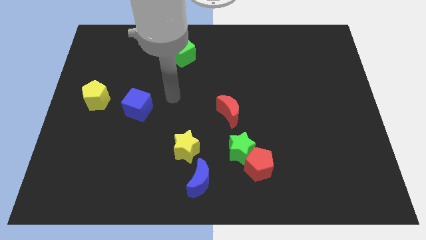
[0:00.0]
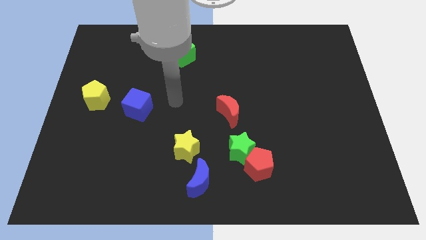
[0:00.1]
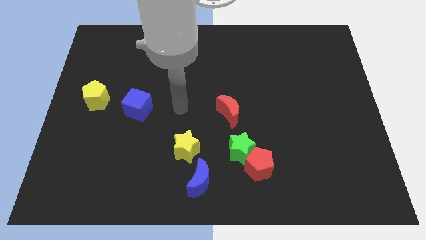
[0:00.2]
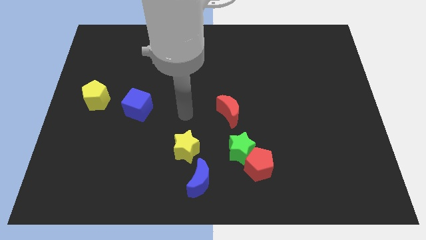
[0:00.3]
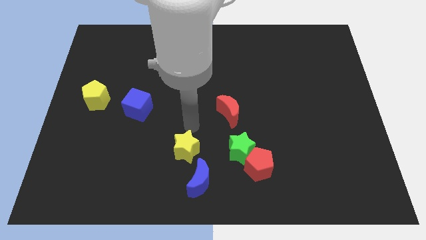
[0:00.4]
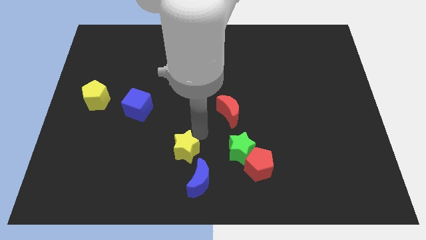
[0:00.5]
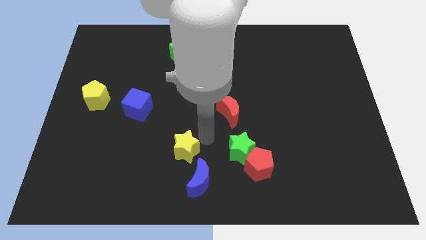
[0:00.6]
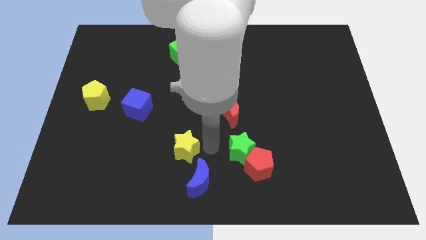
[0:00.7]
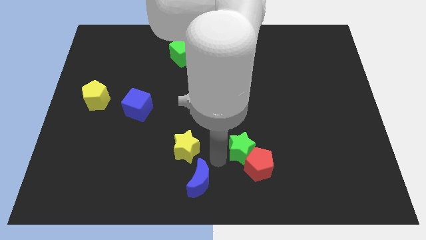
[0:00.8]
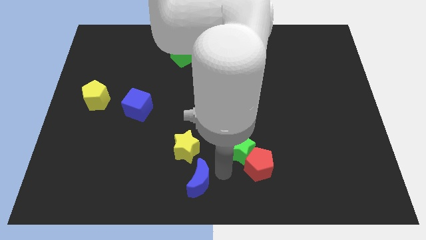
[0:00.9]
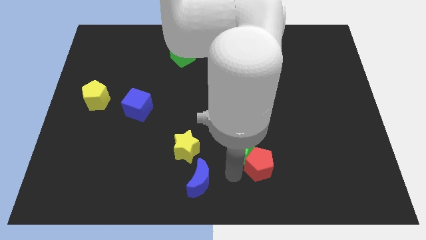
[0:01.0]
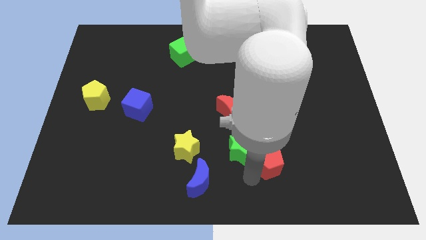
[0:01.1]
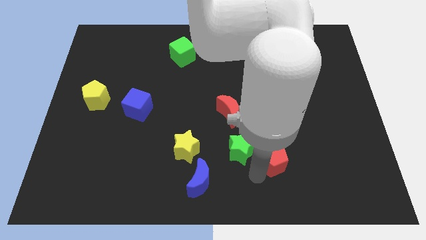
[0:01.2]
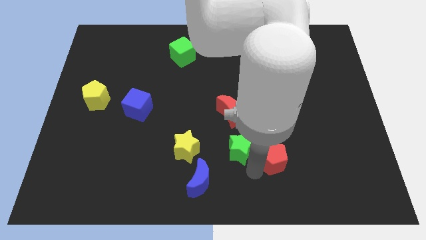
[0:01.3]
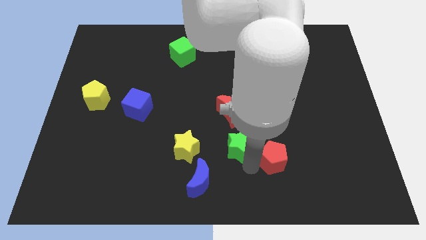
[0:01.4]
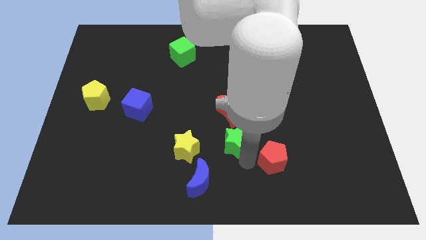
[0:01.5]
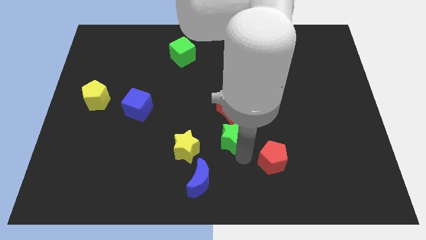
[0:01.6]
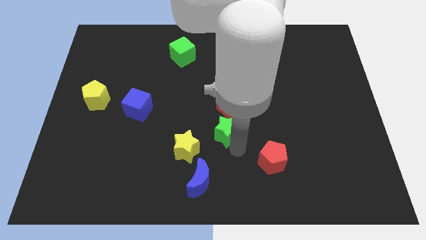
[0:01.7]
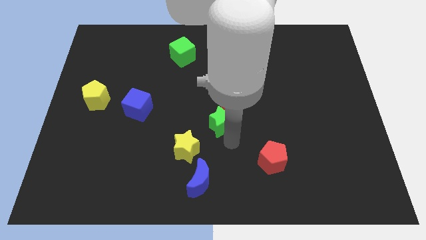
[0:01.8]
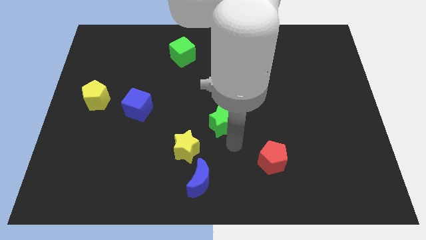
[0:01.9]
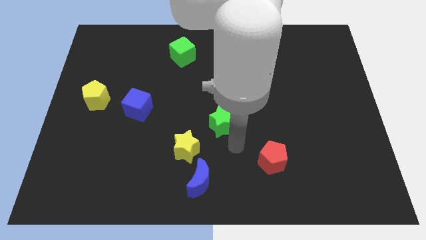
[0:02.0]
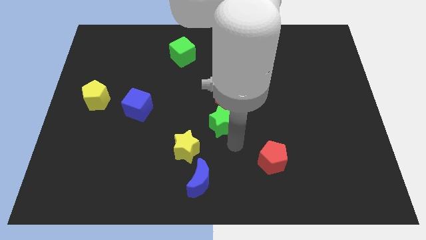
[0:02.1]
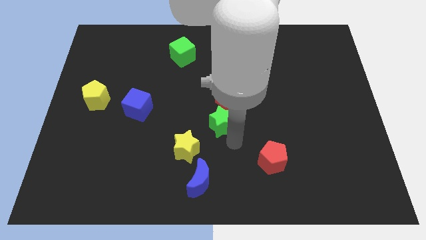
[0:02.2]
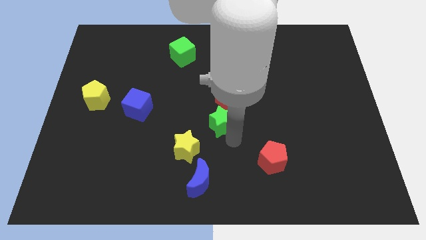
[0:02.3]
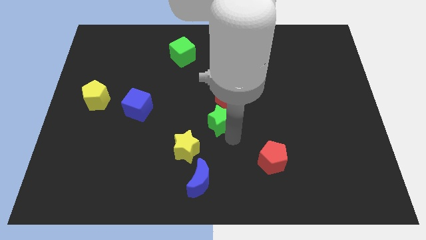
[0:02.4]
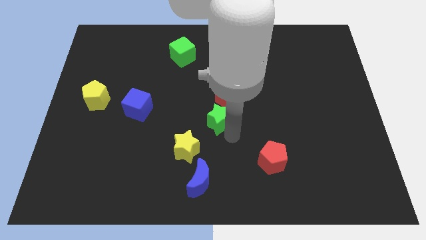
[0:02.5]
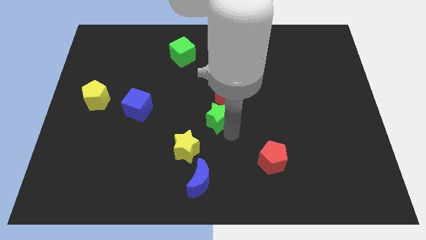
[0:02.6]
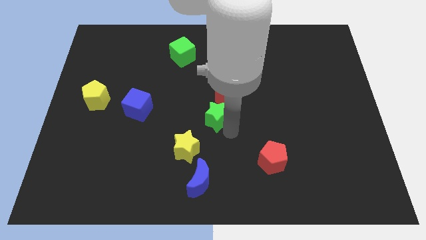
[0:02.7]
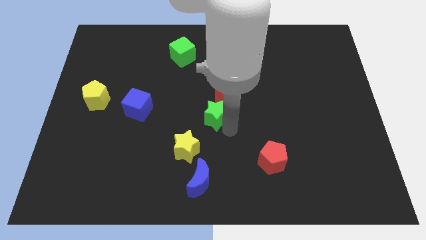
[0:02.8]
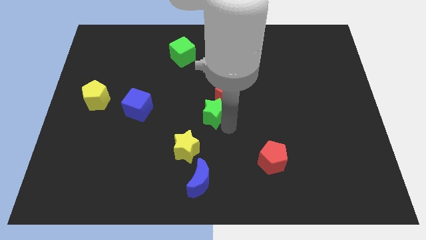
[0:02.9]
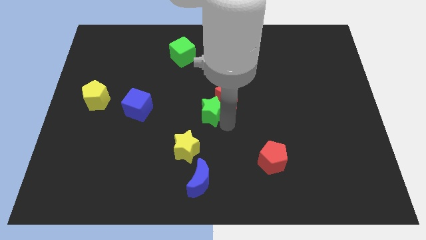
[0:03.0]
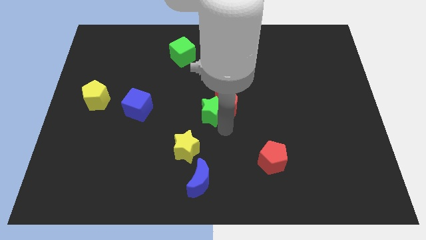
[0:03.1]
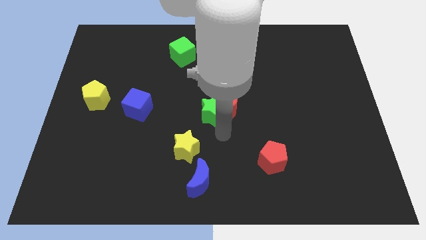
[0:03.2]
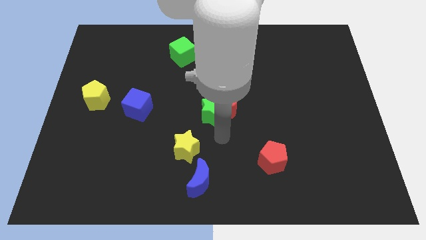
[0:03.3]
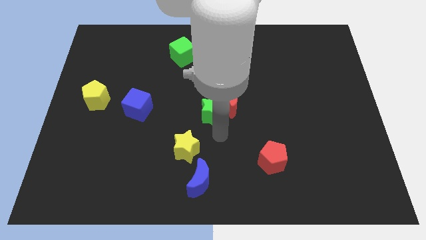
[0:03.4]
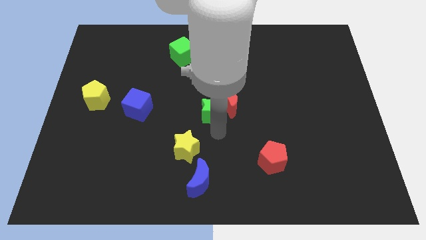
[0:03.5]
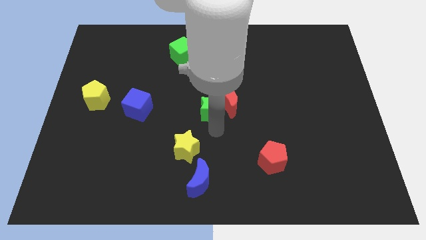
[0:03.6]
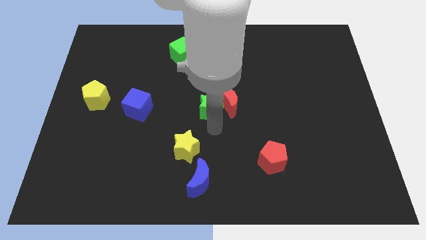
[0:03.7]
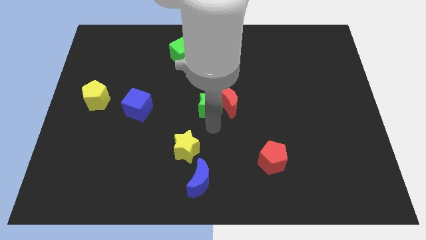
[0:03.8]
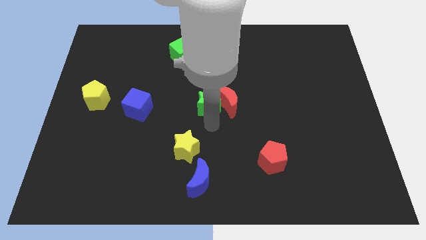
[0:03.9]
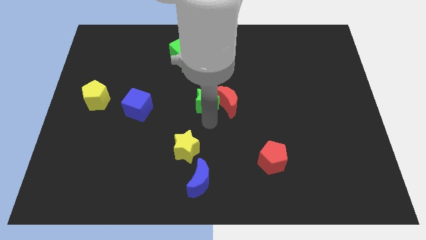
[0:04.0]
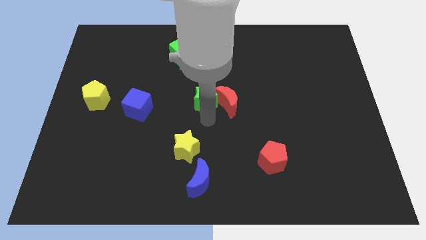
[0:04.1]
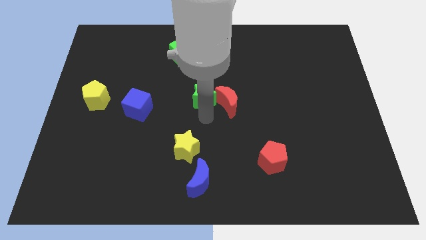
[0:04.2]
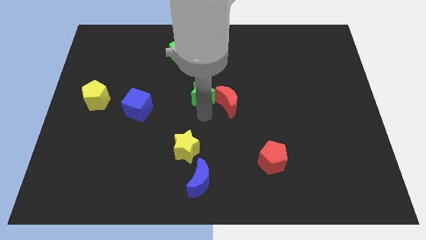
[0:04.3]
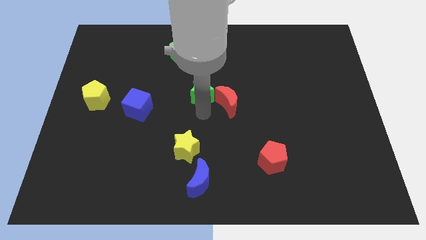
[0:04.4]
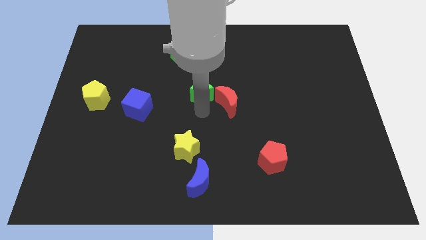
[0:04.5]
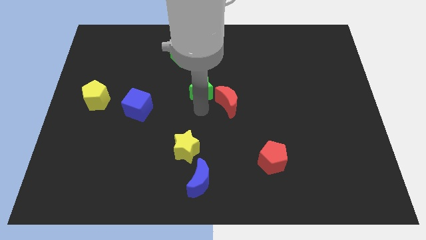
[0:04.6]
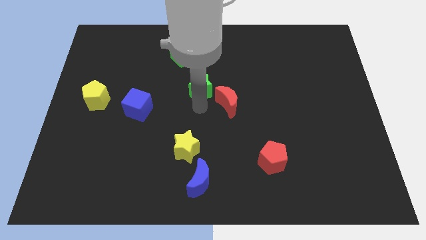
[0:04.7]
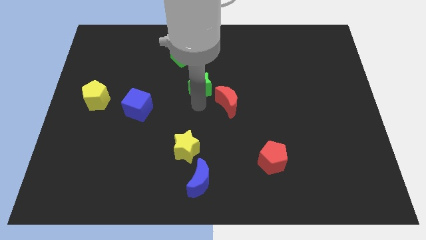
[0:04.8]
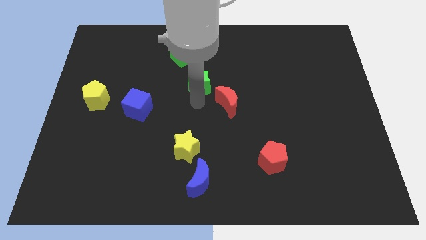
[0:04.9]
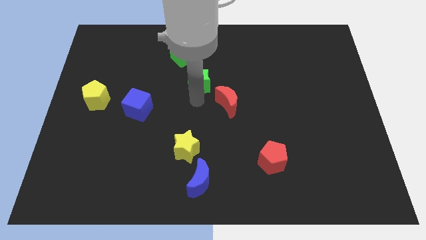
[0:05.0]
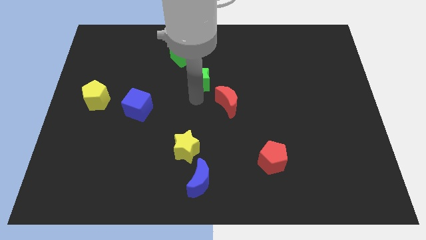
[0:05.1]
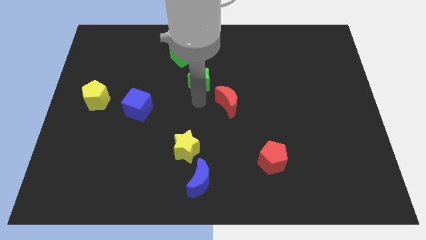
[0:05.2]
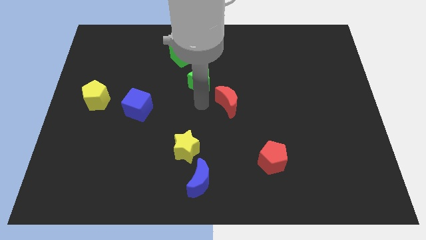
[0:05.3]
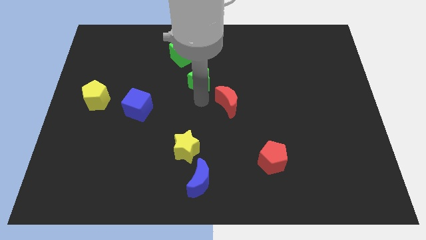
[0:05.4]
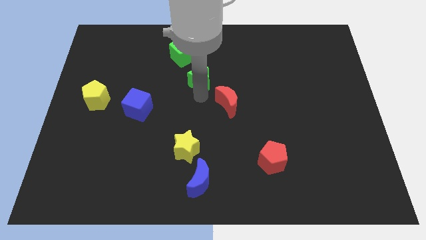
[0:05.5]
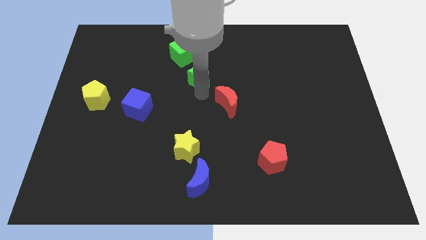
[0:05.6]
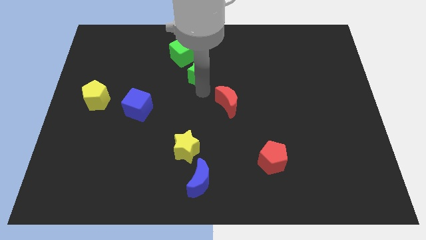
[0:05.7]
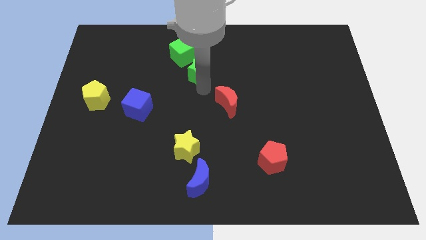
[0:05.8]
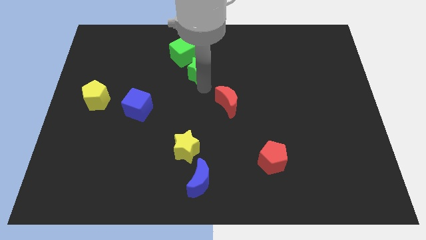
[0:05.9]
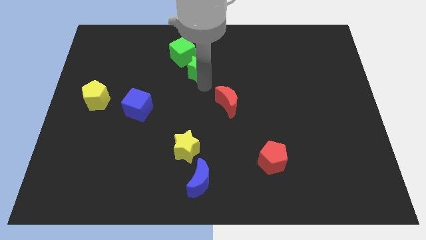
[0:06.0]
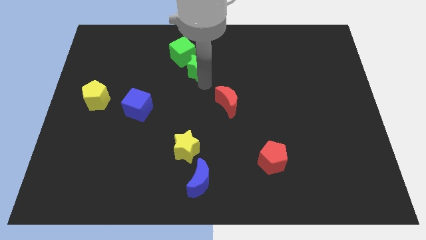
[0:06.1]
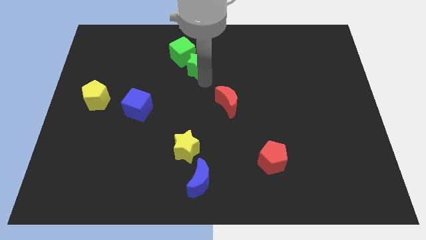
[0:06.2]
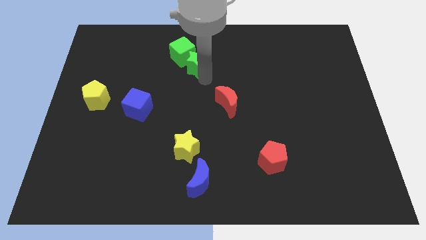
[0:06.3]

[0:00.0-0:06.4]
put the green star next to the green cube

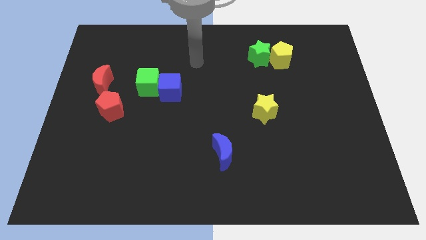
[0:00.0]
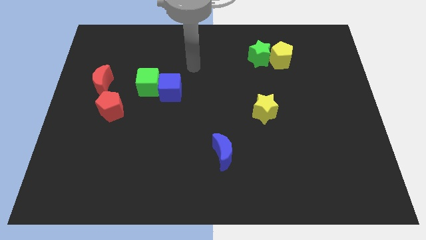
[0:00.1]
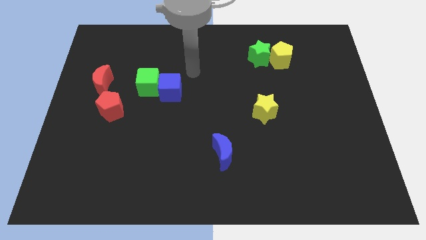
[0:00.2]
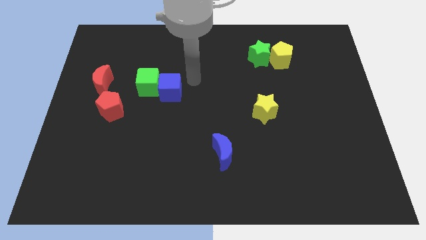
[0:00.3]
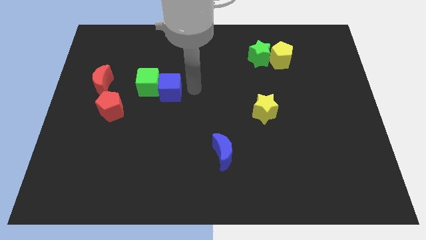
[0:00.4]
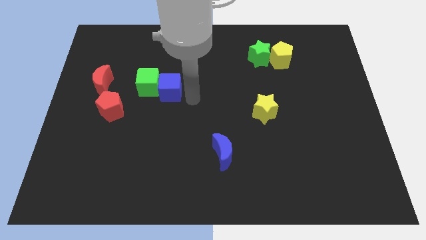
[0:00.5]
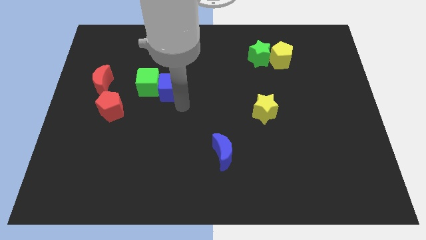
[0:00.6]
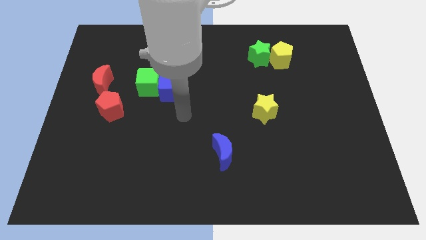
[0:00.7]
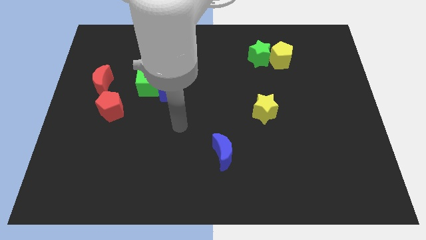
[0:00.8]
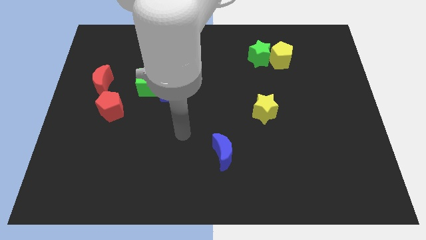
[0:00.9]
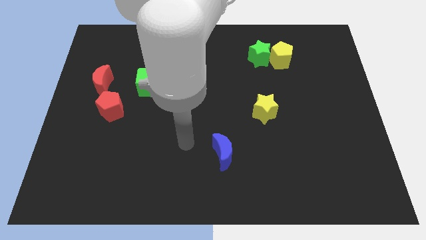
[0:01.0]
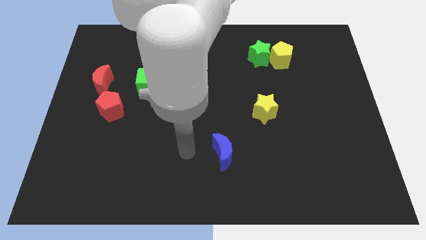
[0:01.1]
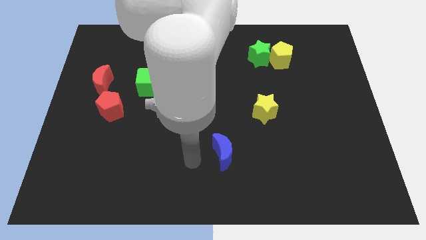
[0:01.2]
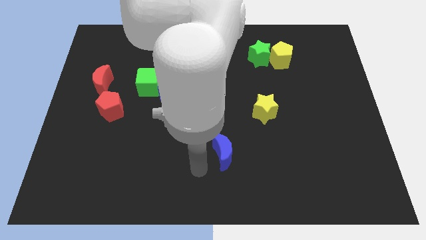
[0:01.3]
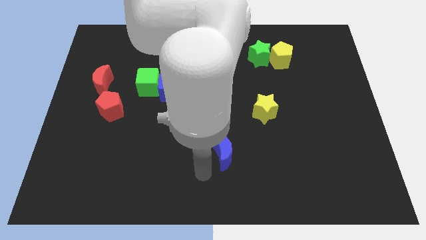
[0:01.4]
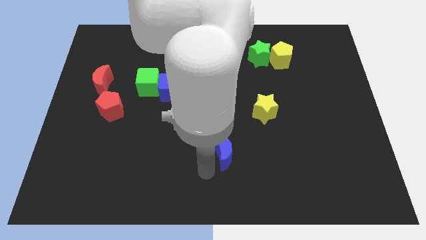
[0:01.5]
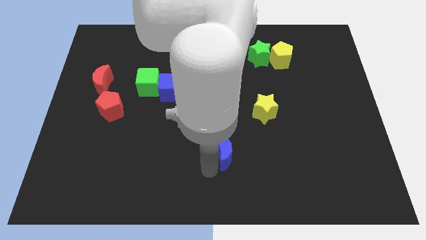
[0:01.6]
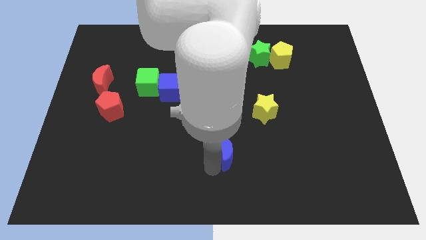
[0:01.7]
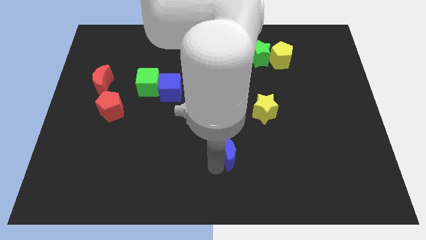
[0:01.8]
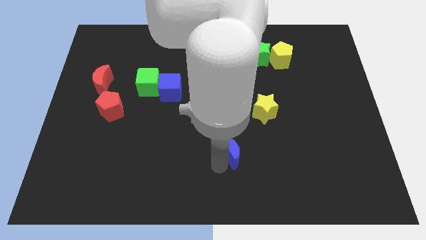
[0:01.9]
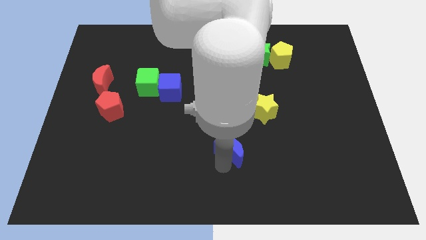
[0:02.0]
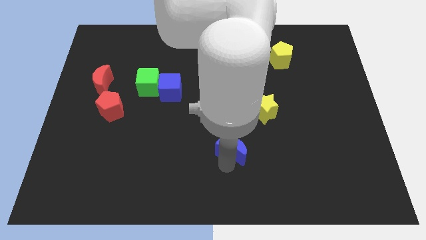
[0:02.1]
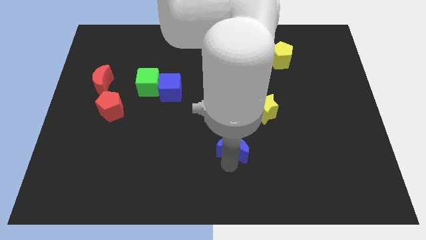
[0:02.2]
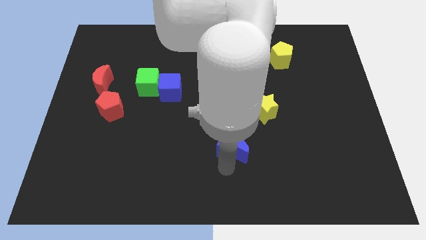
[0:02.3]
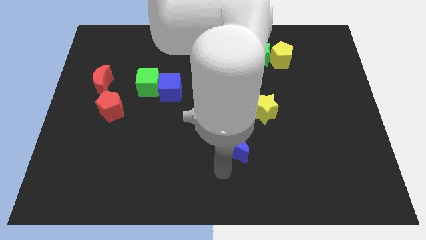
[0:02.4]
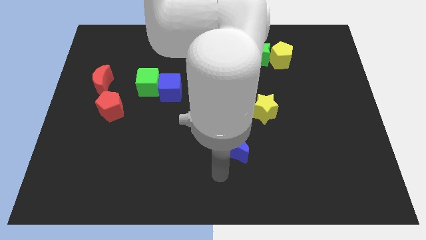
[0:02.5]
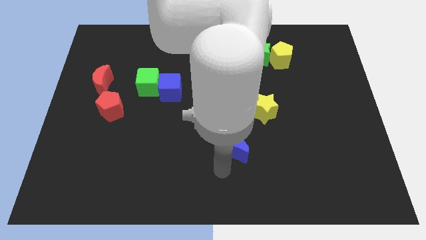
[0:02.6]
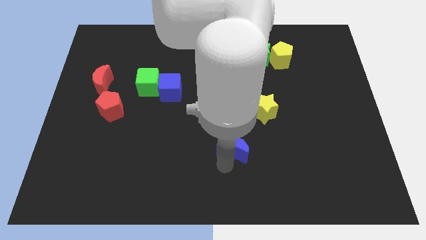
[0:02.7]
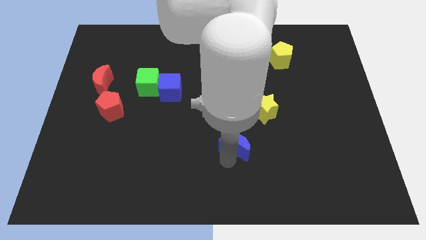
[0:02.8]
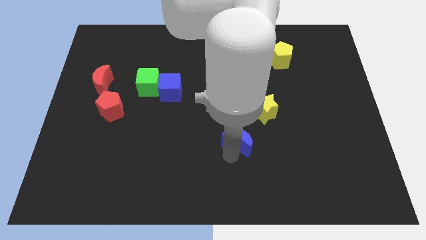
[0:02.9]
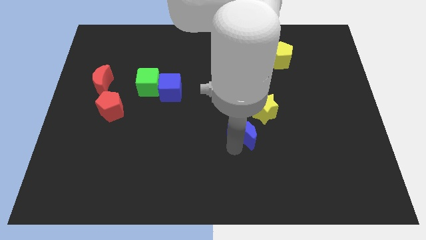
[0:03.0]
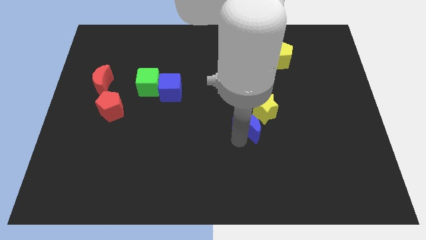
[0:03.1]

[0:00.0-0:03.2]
slide the blue moon towards the yellow star
